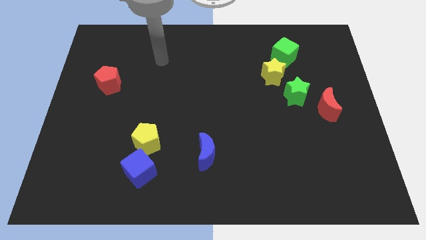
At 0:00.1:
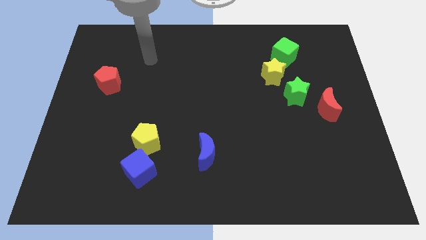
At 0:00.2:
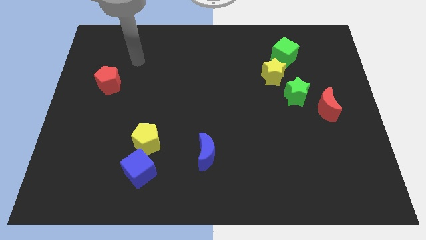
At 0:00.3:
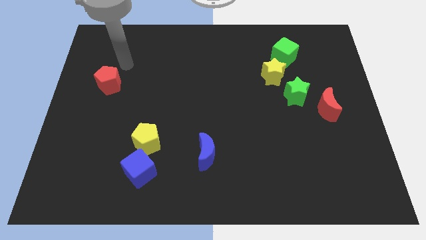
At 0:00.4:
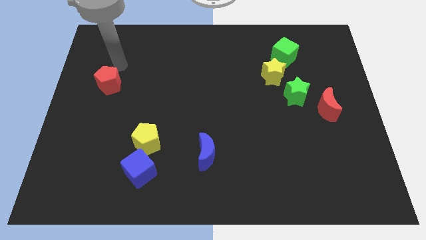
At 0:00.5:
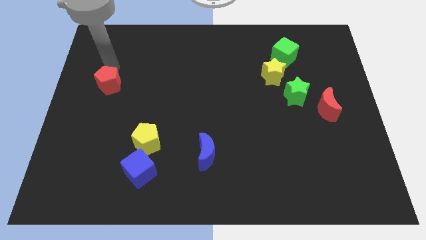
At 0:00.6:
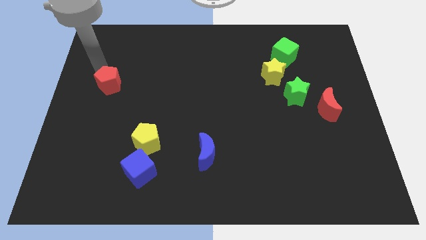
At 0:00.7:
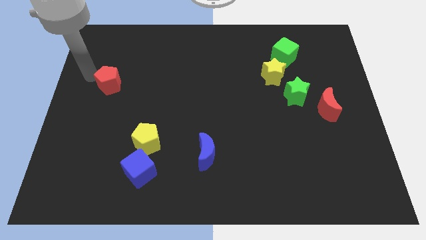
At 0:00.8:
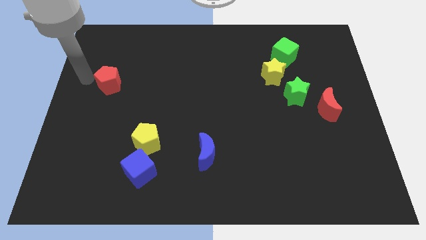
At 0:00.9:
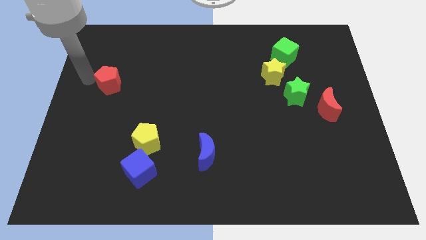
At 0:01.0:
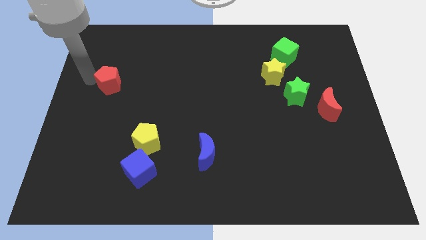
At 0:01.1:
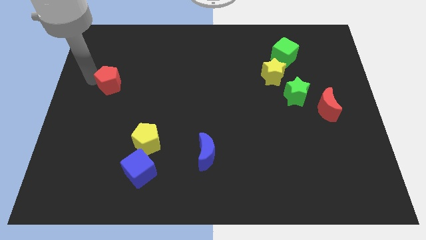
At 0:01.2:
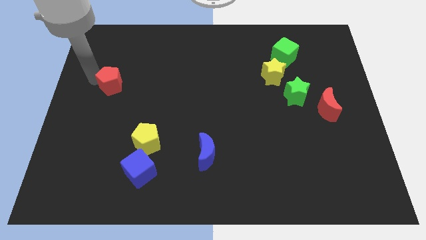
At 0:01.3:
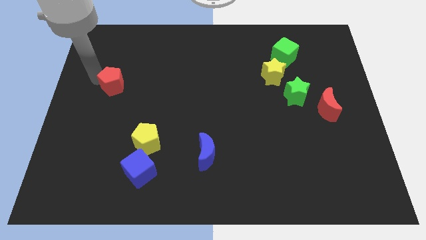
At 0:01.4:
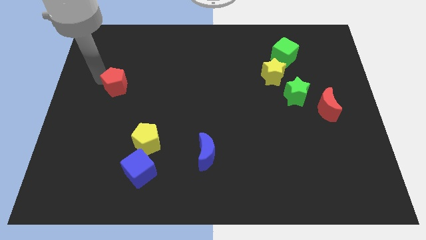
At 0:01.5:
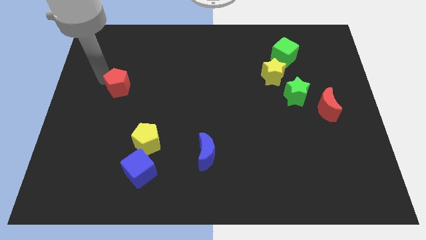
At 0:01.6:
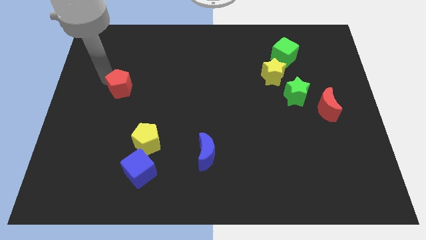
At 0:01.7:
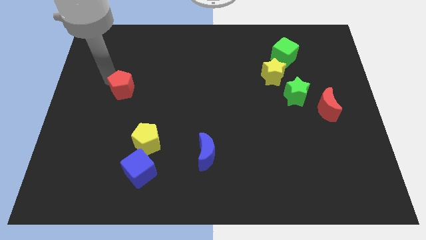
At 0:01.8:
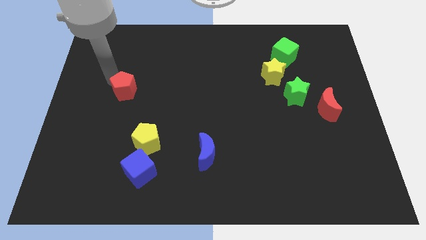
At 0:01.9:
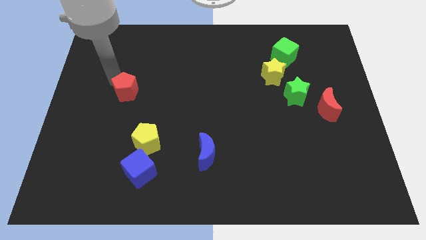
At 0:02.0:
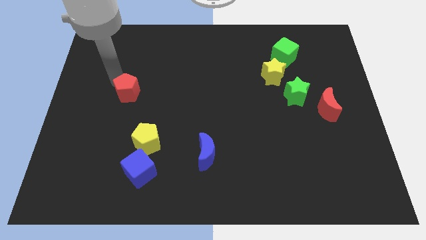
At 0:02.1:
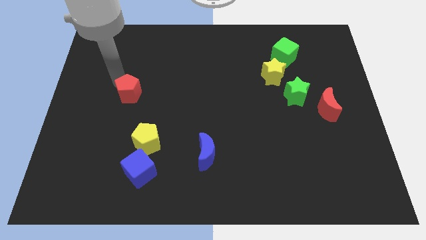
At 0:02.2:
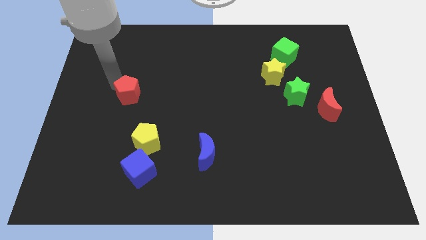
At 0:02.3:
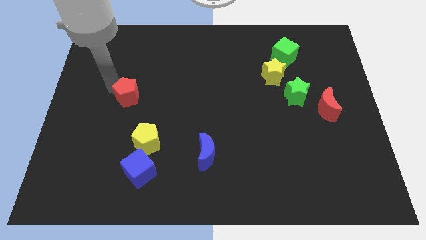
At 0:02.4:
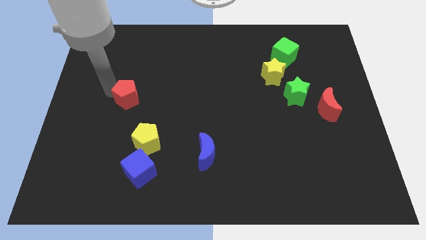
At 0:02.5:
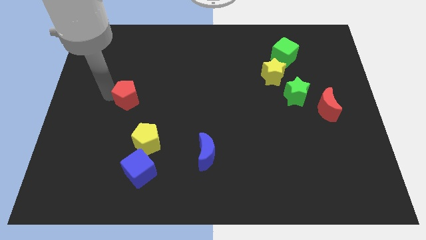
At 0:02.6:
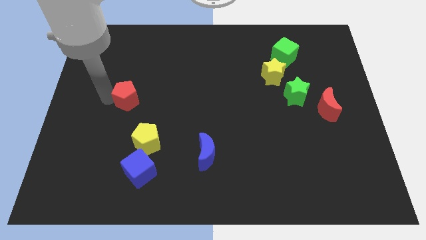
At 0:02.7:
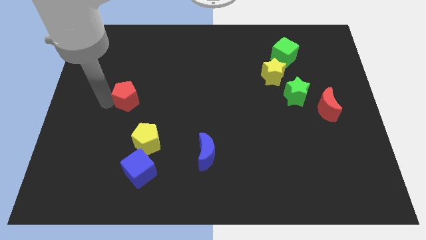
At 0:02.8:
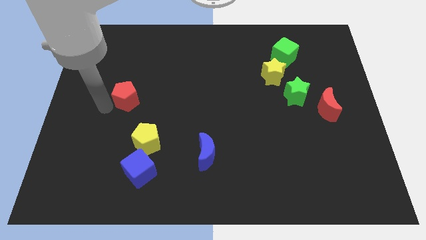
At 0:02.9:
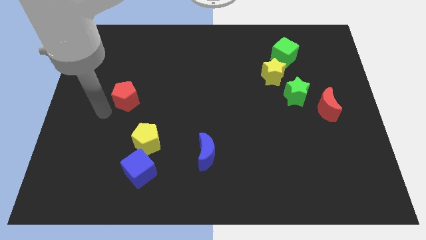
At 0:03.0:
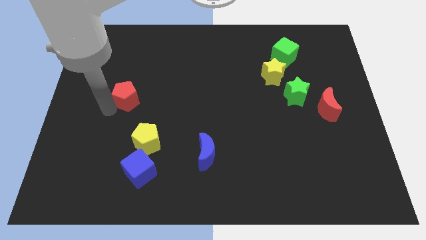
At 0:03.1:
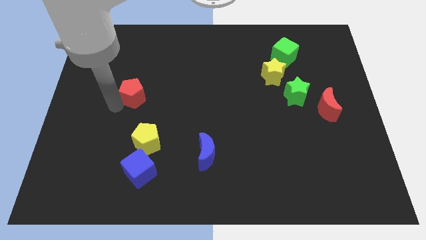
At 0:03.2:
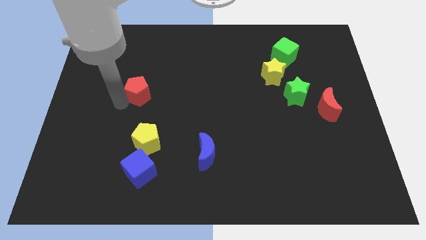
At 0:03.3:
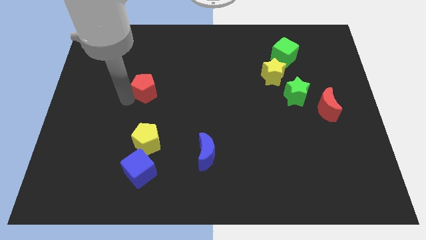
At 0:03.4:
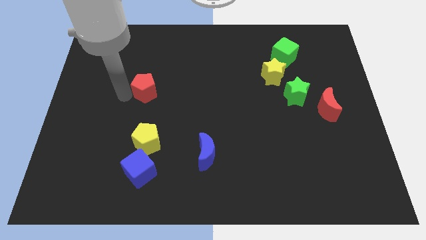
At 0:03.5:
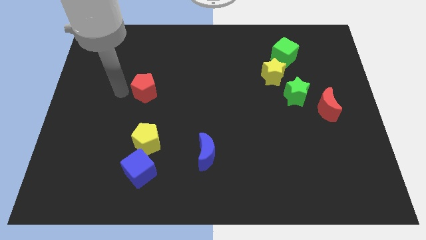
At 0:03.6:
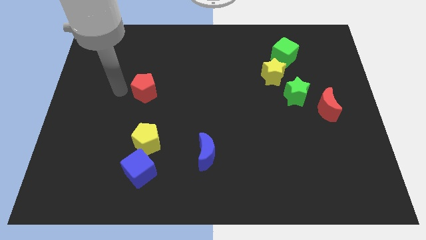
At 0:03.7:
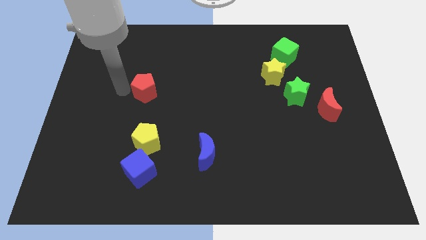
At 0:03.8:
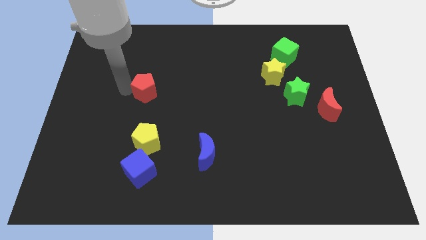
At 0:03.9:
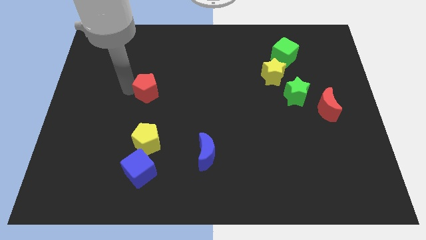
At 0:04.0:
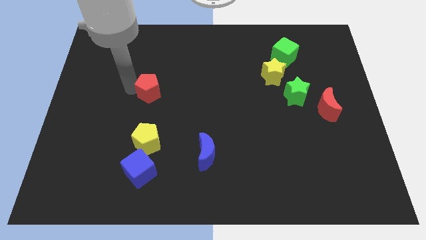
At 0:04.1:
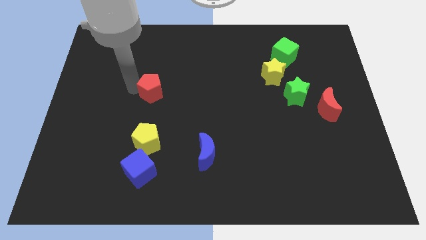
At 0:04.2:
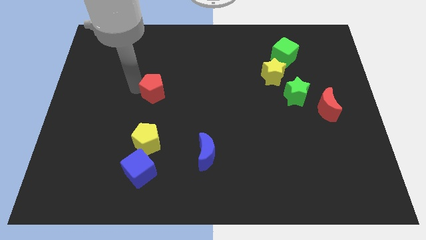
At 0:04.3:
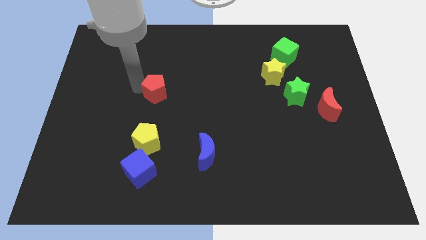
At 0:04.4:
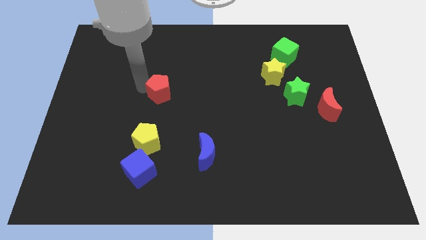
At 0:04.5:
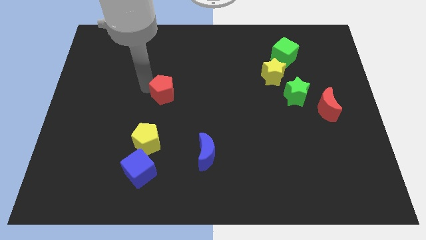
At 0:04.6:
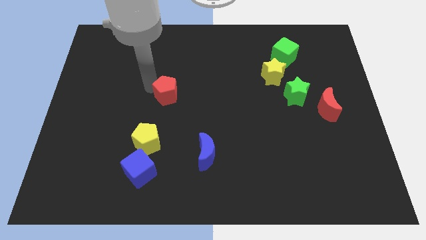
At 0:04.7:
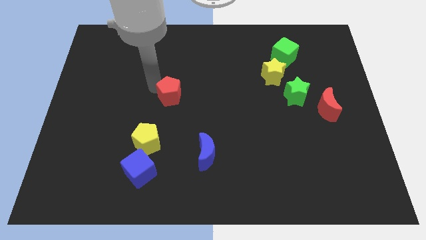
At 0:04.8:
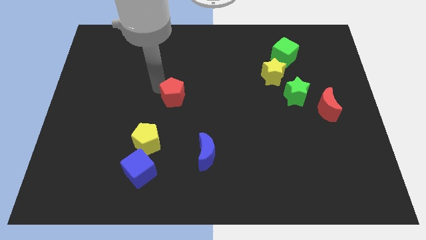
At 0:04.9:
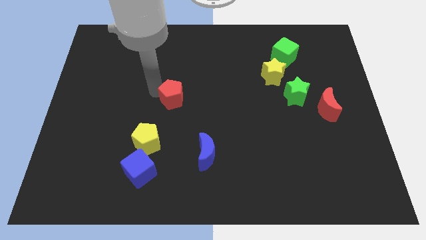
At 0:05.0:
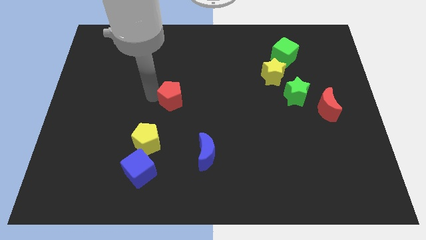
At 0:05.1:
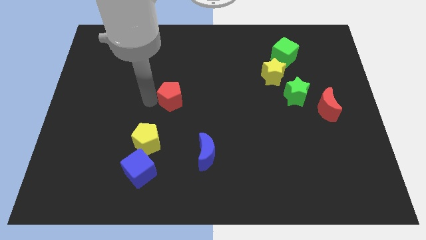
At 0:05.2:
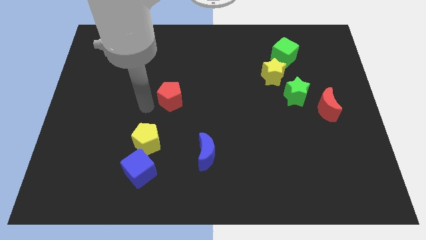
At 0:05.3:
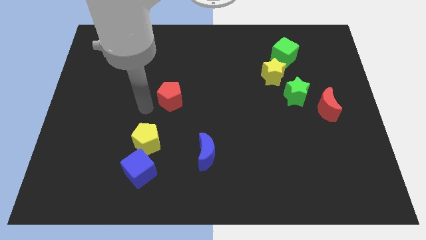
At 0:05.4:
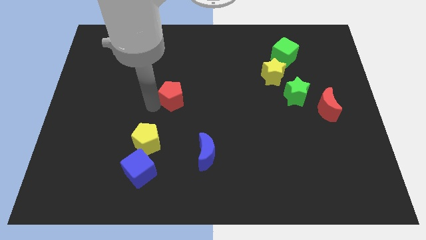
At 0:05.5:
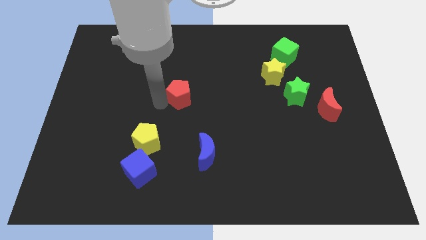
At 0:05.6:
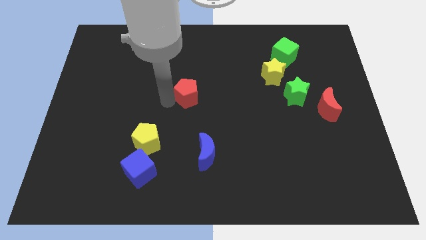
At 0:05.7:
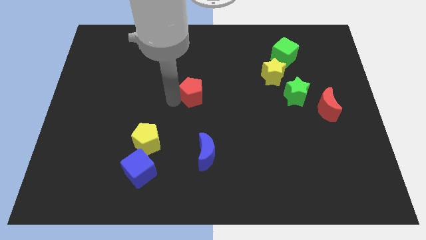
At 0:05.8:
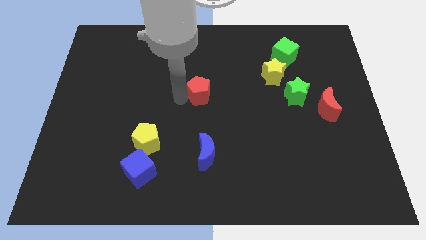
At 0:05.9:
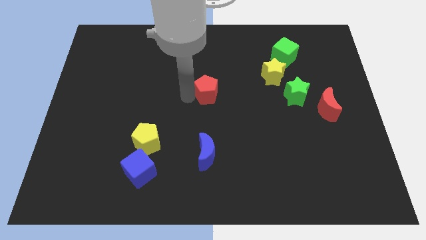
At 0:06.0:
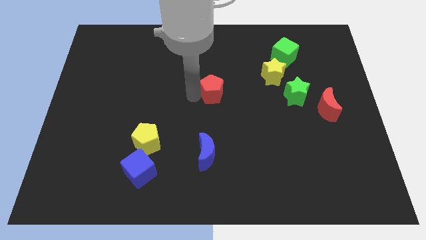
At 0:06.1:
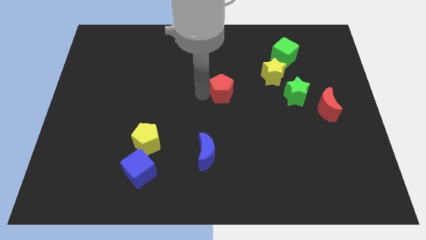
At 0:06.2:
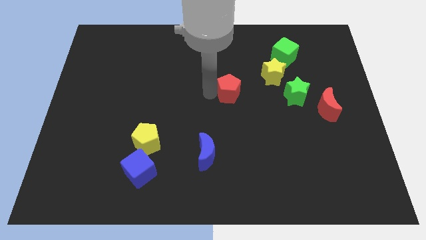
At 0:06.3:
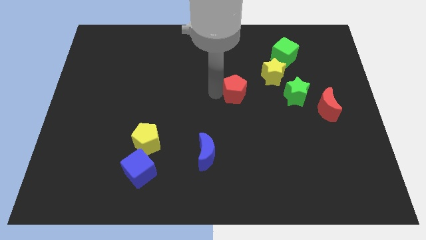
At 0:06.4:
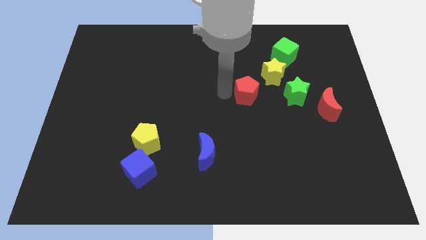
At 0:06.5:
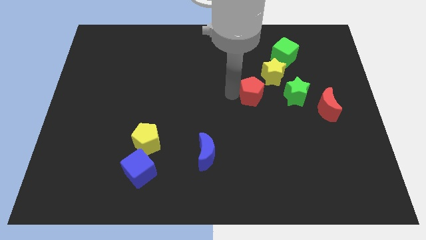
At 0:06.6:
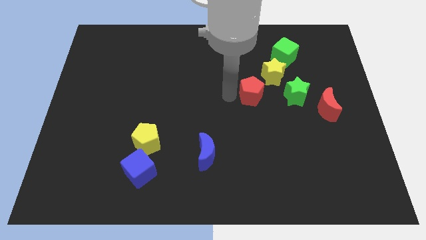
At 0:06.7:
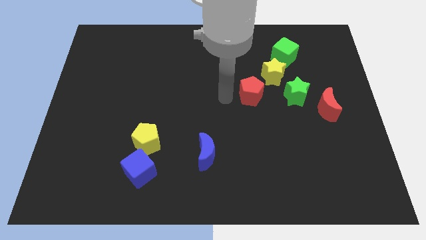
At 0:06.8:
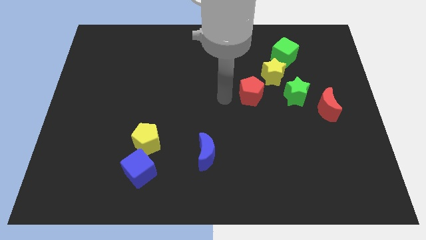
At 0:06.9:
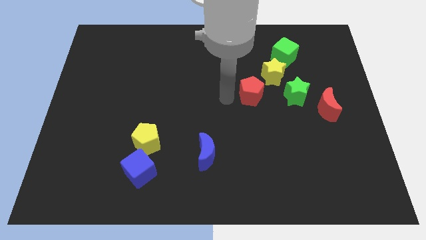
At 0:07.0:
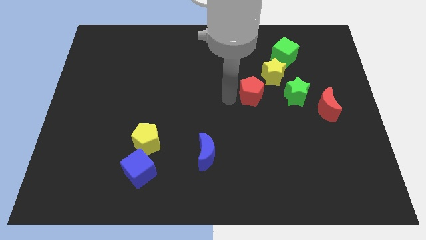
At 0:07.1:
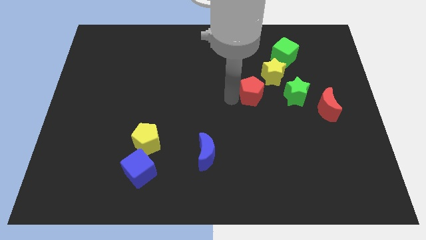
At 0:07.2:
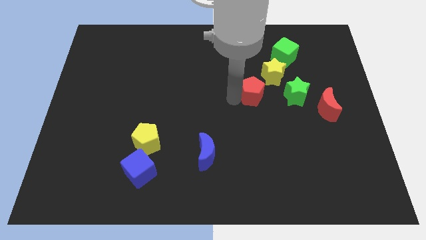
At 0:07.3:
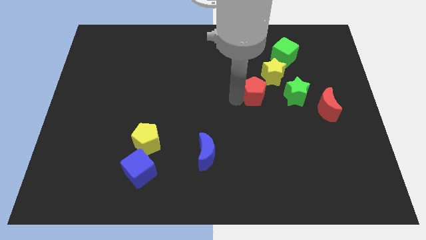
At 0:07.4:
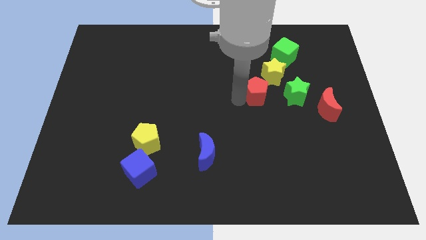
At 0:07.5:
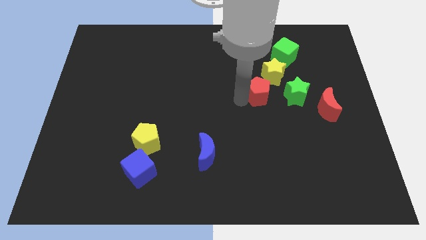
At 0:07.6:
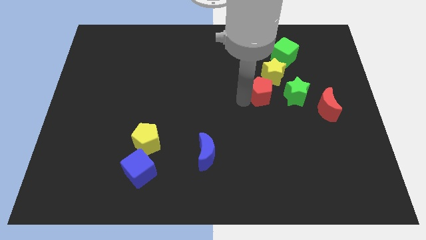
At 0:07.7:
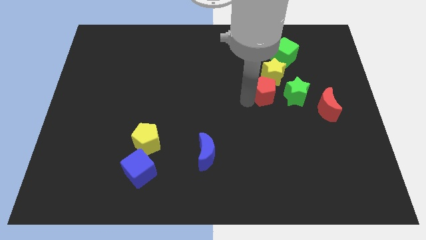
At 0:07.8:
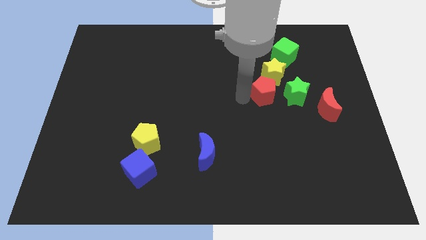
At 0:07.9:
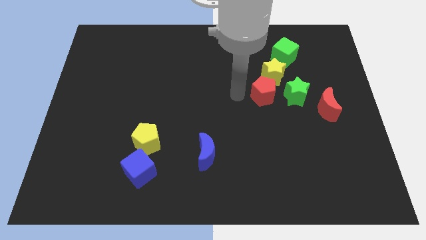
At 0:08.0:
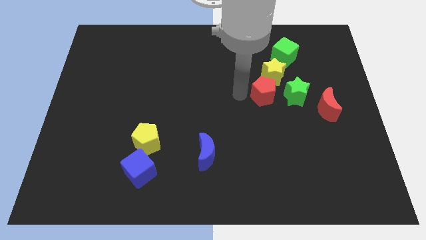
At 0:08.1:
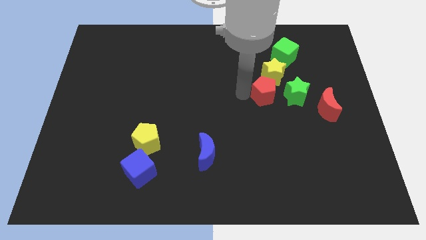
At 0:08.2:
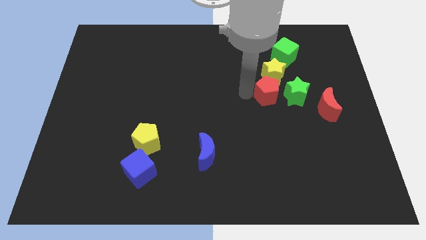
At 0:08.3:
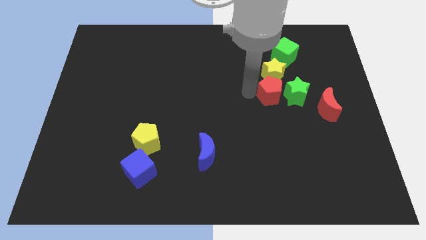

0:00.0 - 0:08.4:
put the red pentagon close to the green star
